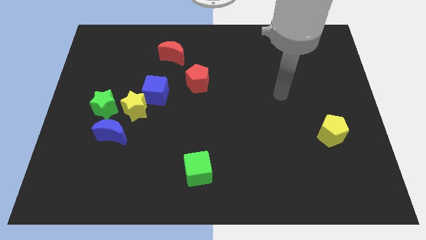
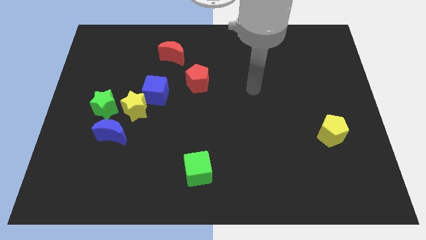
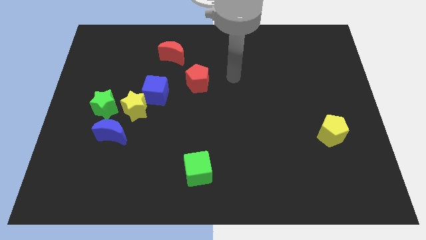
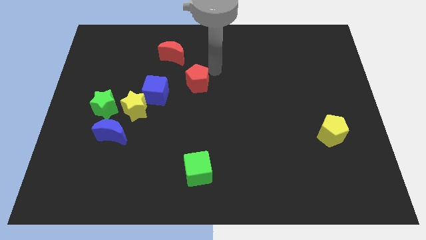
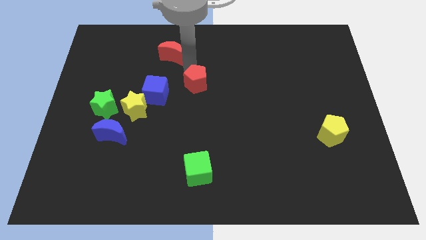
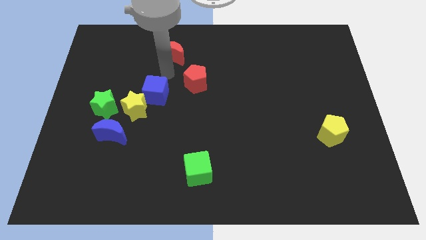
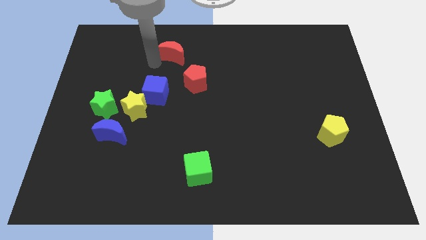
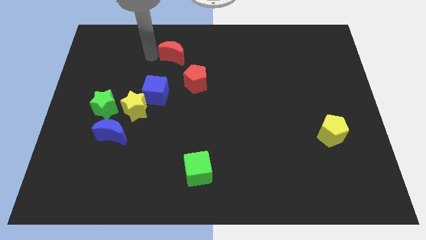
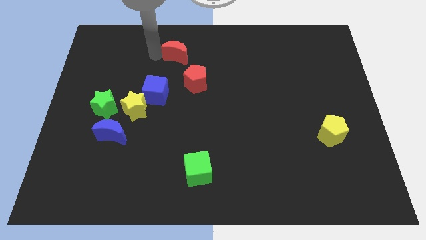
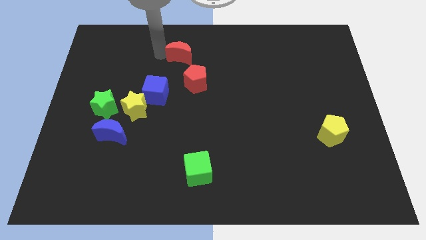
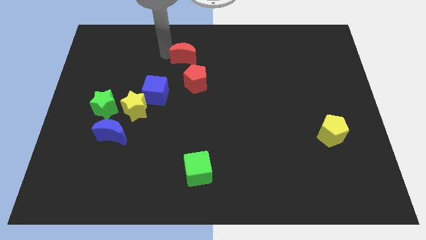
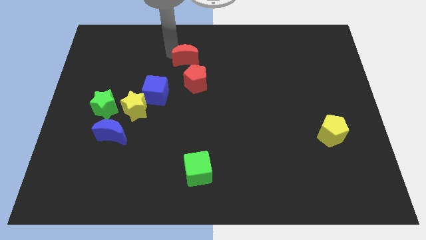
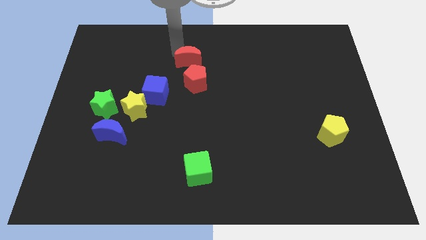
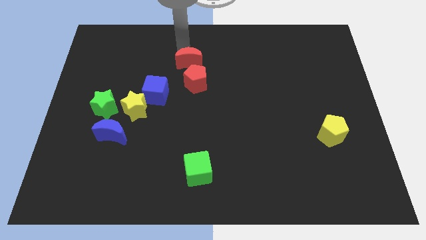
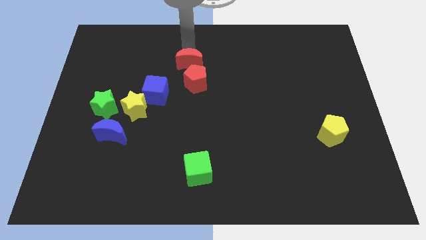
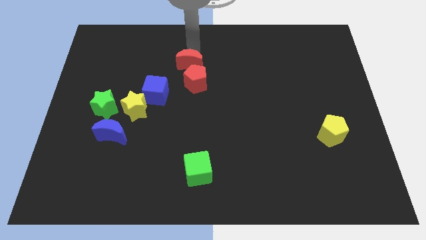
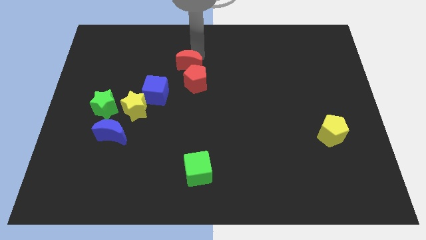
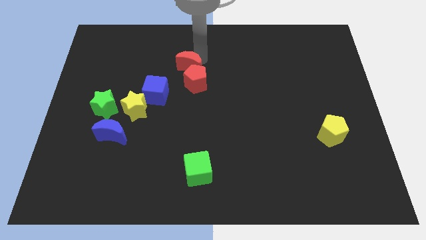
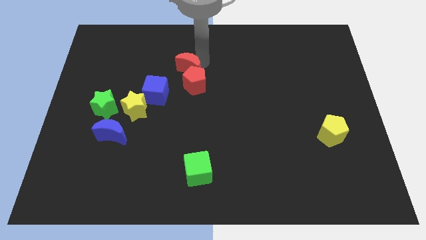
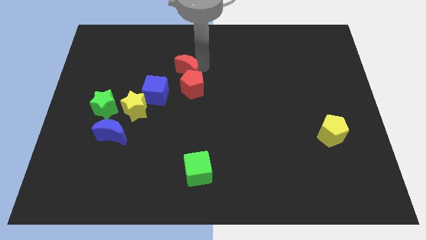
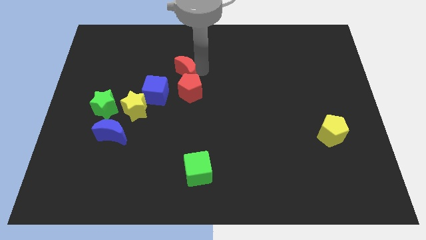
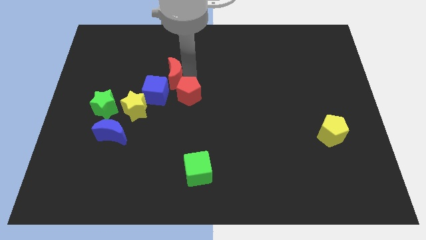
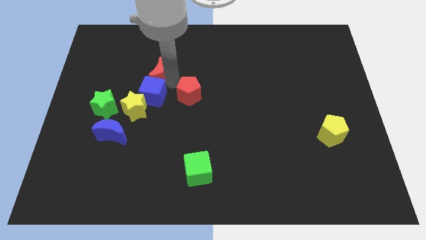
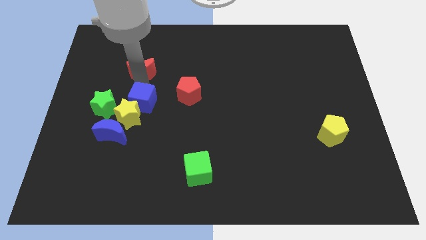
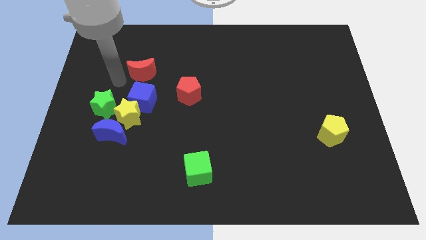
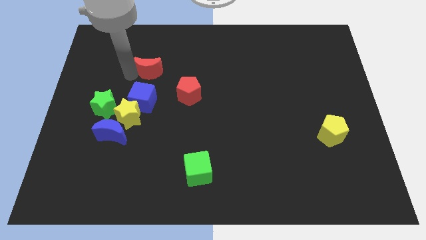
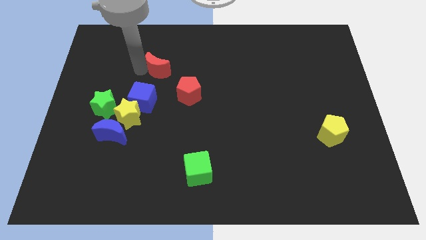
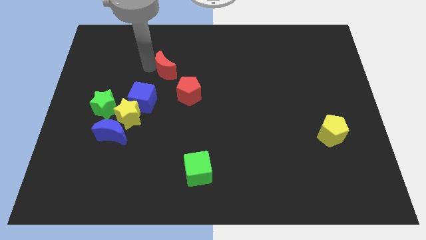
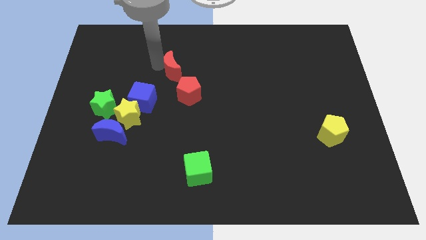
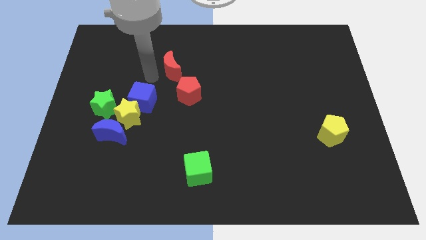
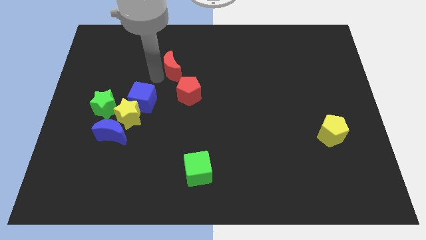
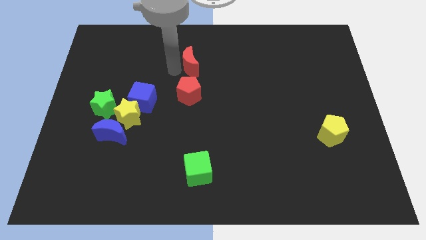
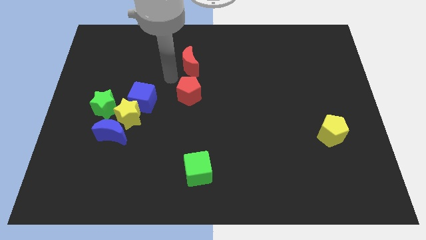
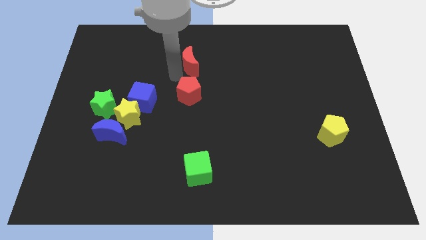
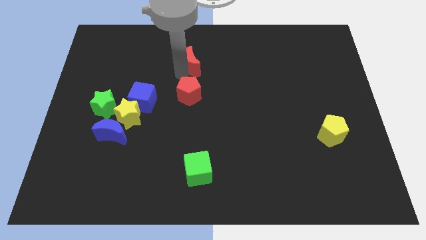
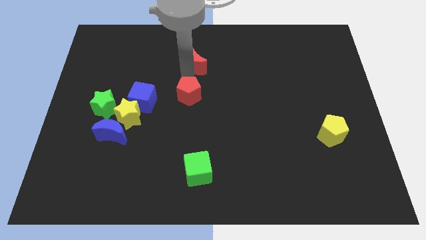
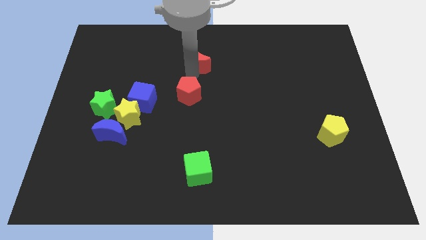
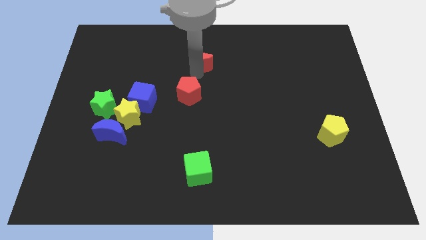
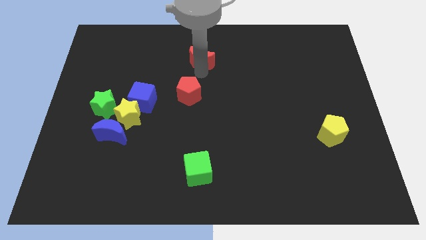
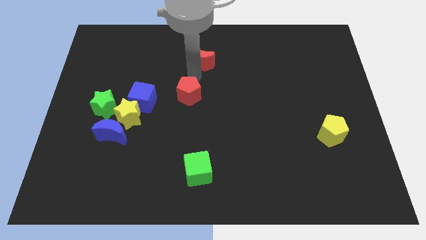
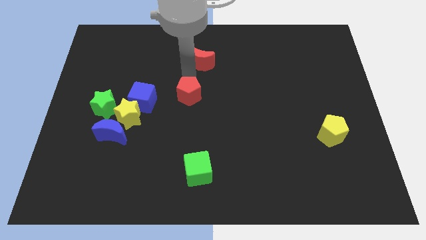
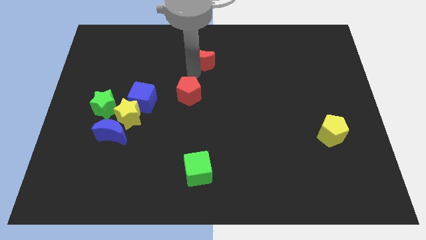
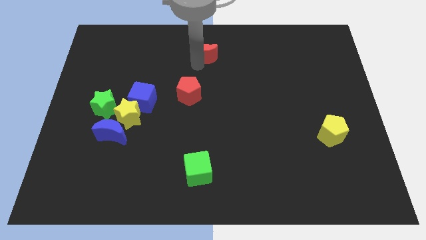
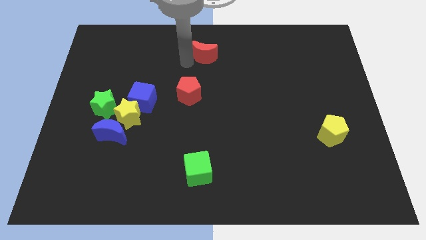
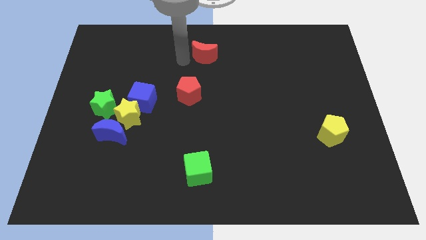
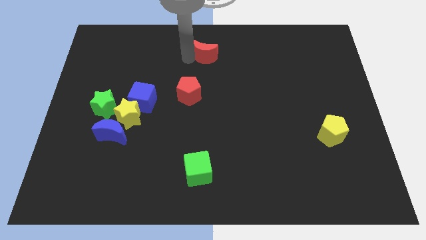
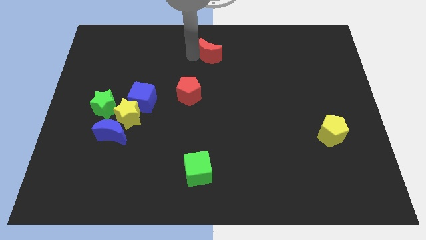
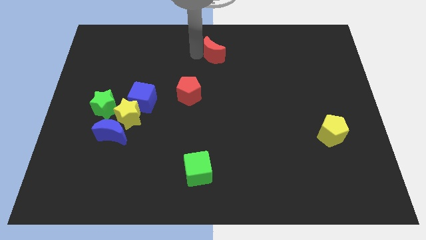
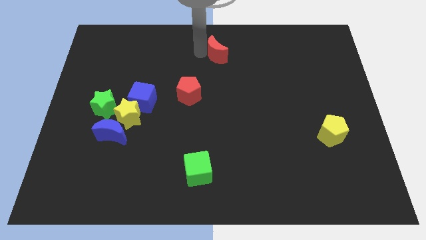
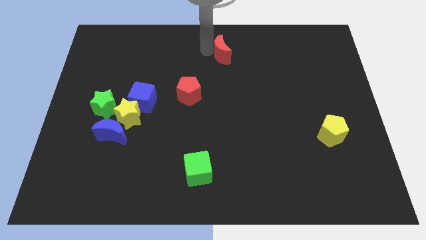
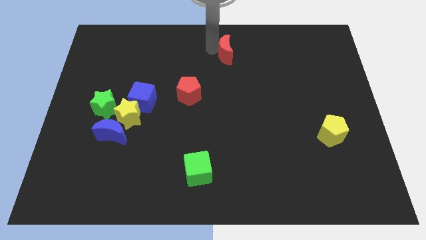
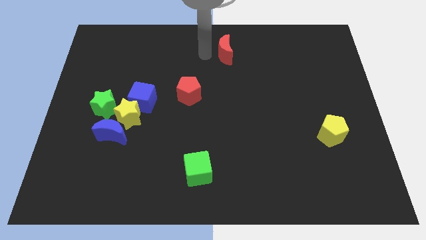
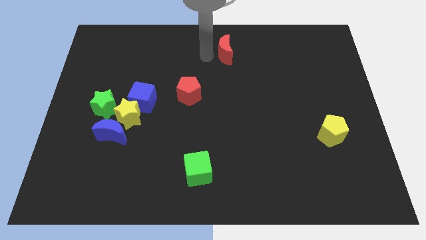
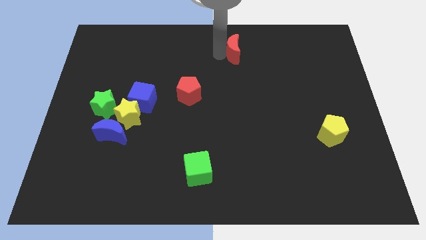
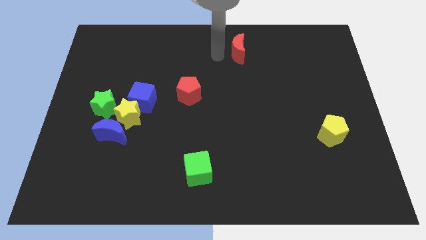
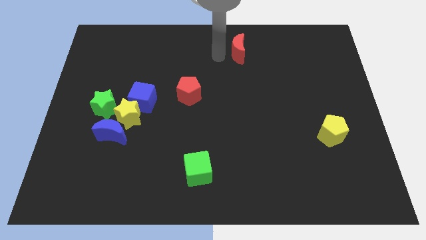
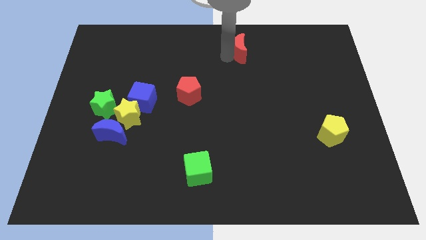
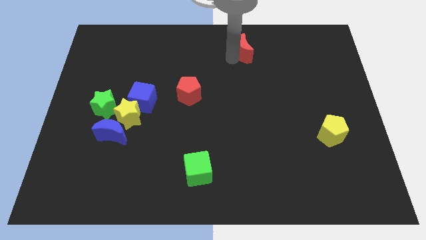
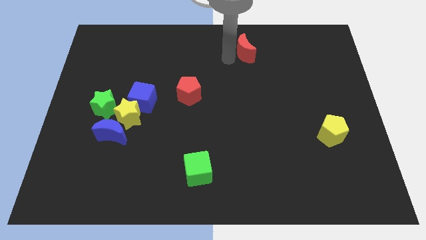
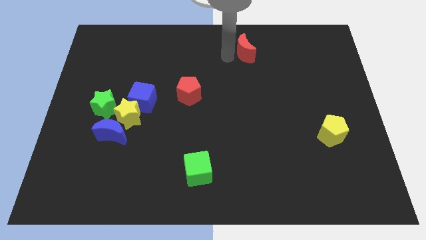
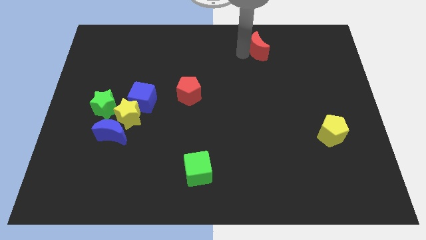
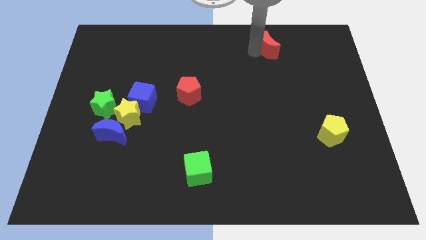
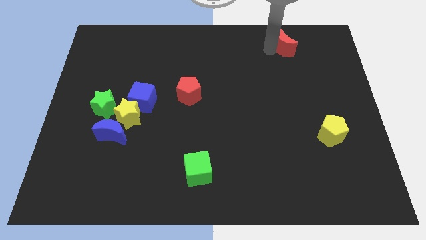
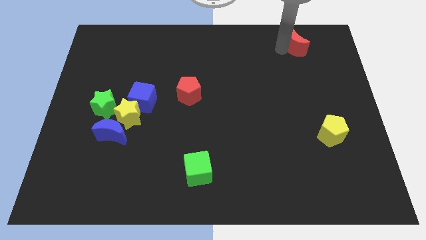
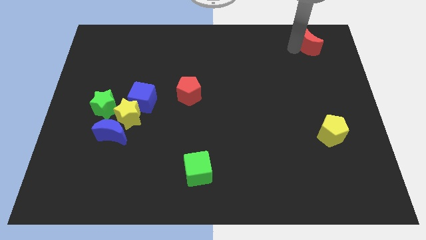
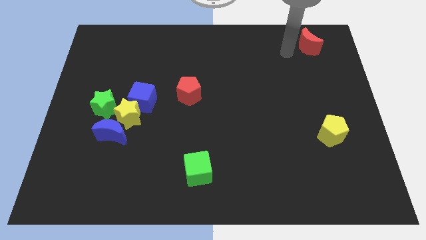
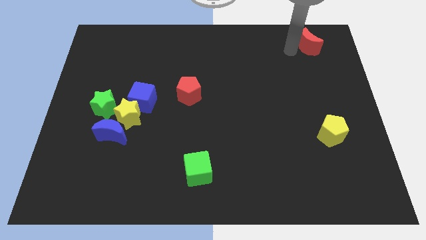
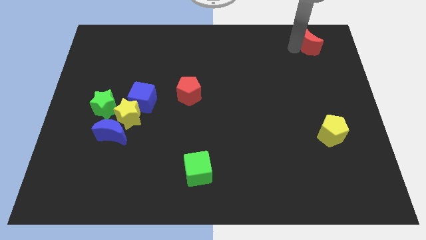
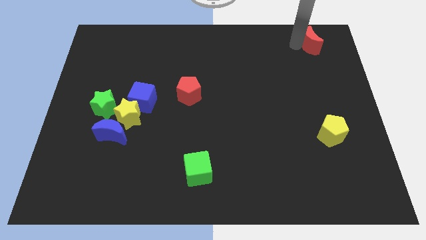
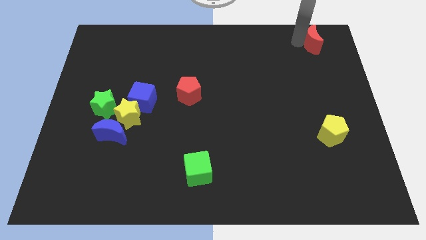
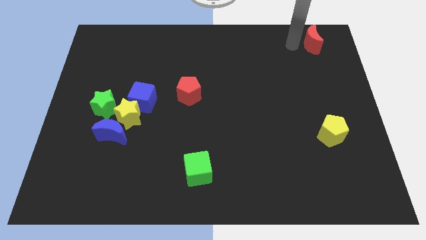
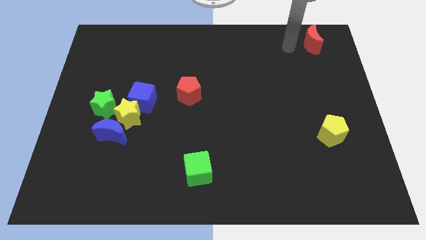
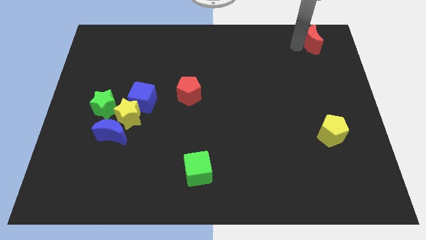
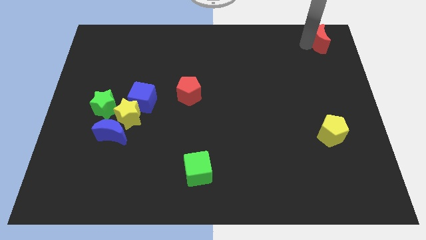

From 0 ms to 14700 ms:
move the red moon to the top right of the board

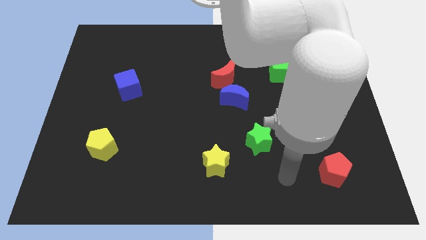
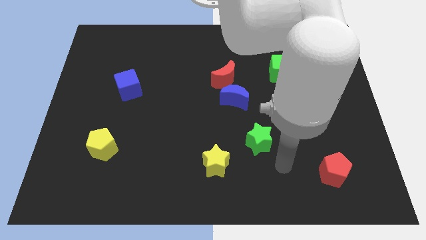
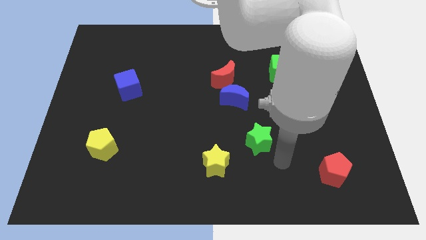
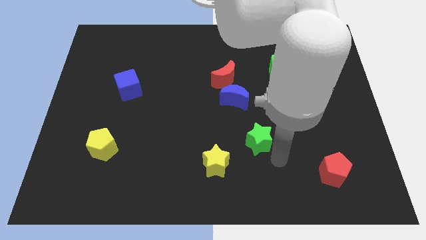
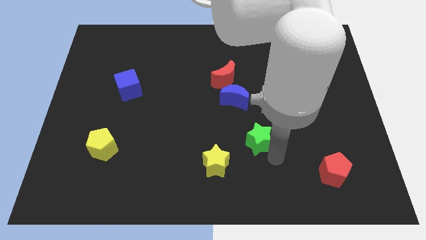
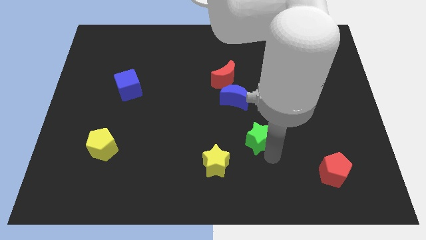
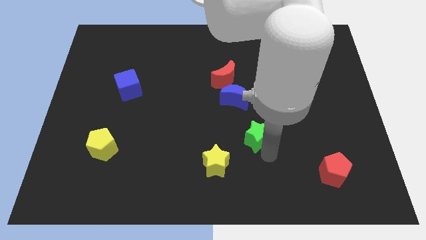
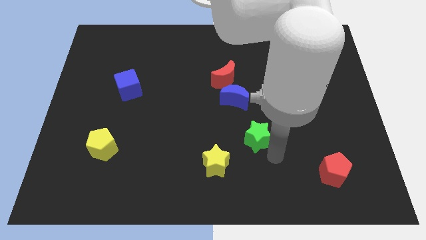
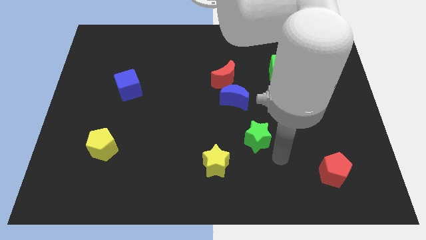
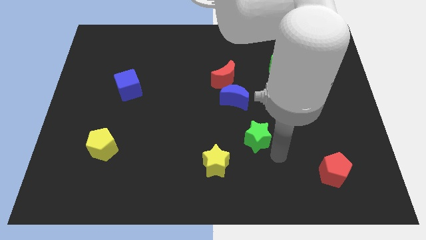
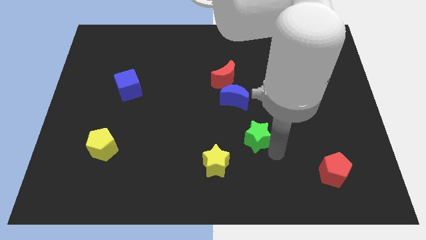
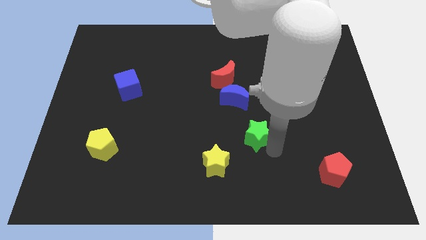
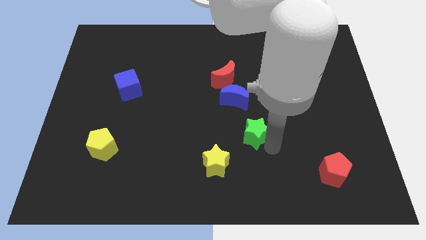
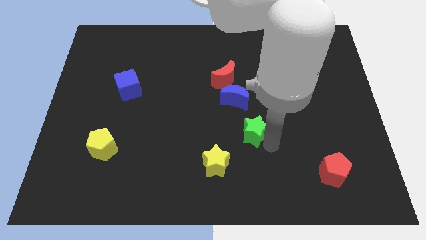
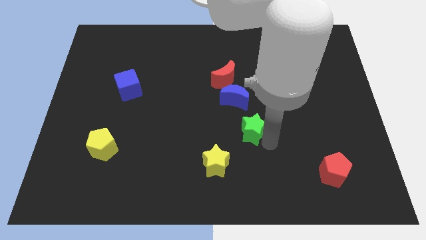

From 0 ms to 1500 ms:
slide the green star to the center of the board
